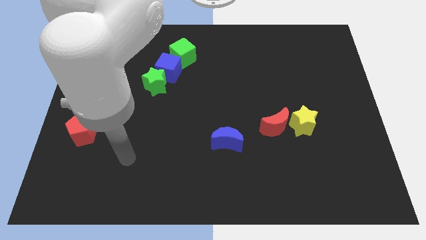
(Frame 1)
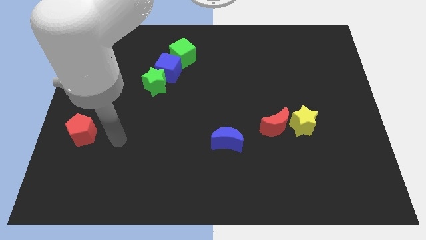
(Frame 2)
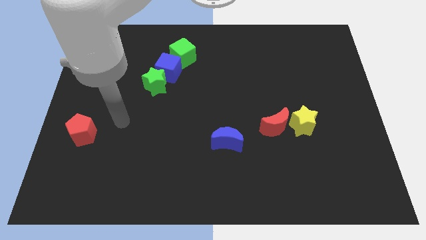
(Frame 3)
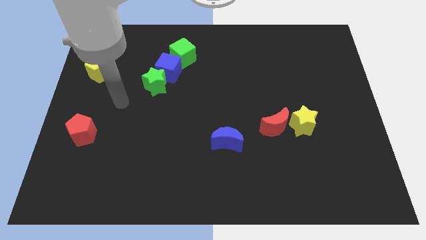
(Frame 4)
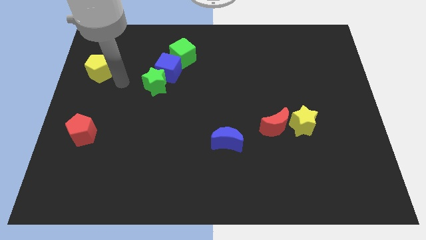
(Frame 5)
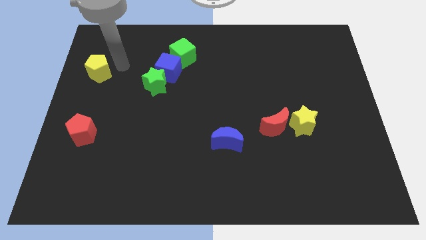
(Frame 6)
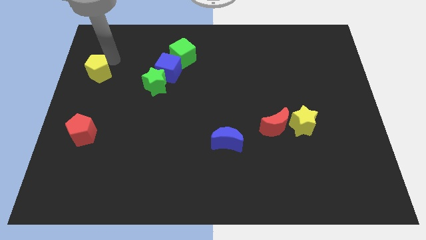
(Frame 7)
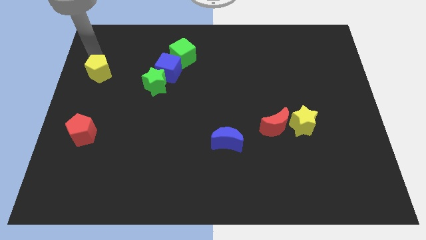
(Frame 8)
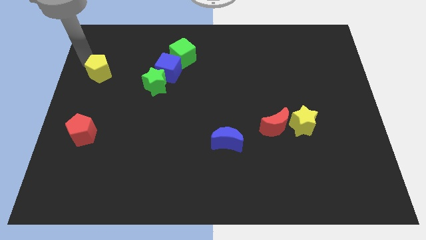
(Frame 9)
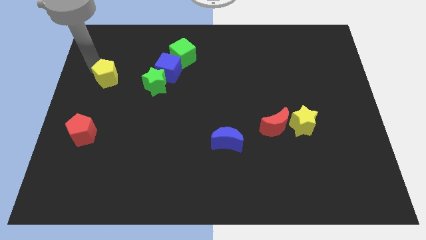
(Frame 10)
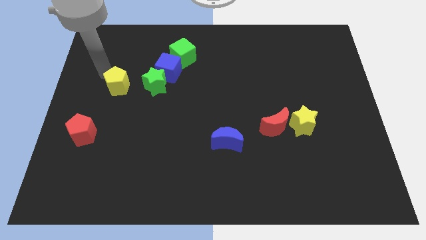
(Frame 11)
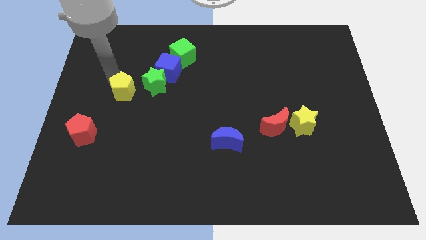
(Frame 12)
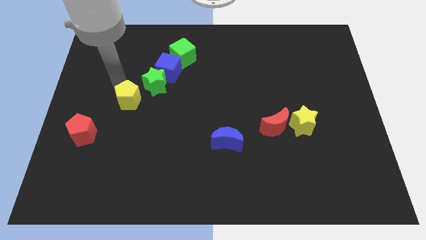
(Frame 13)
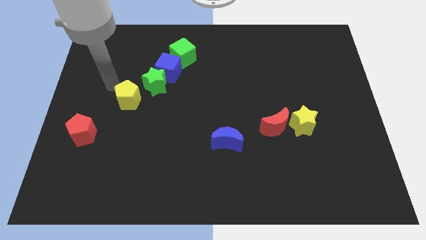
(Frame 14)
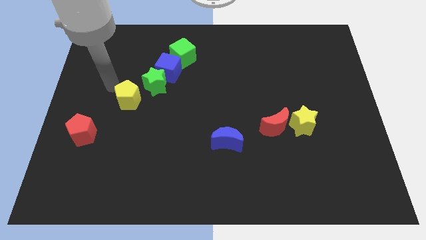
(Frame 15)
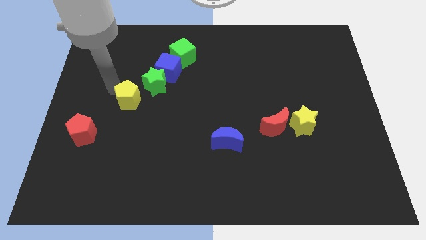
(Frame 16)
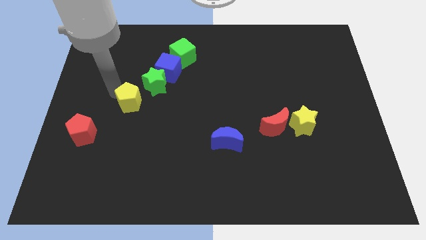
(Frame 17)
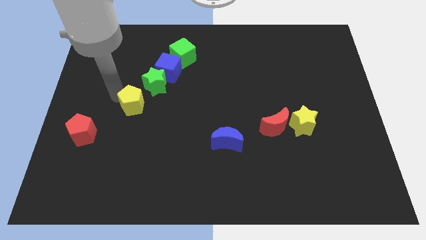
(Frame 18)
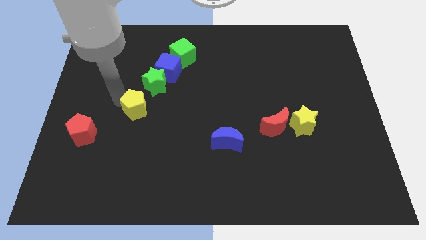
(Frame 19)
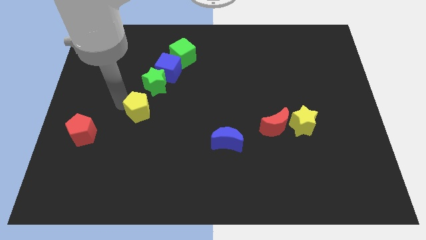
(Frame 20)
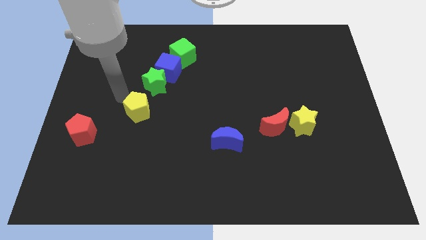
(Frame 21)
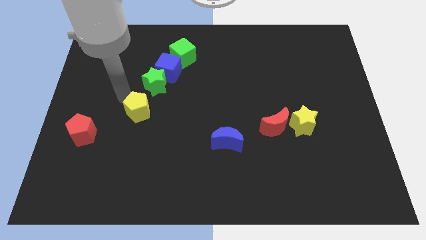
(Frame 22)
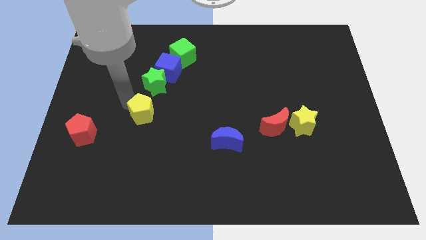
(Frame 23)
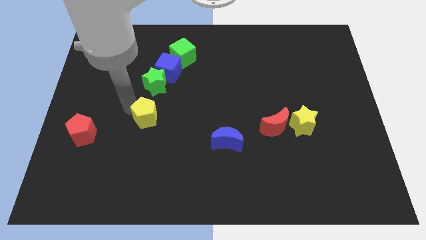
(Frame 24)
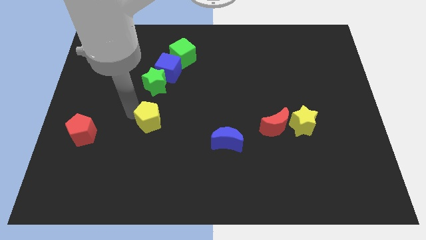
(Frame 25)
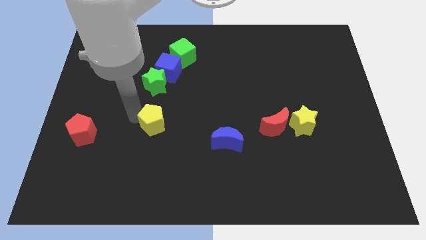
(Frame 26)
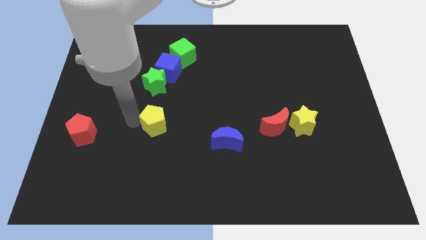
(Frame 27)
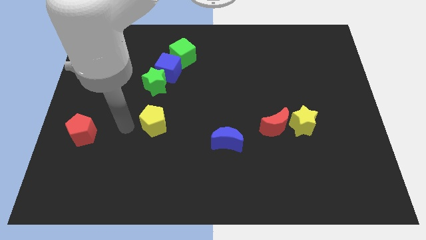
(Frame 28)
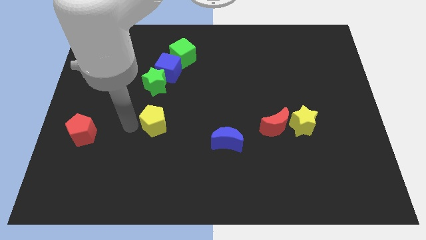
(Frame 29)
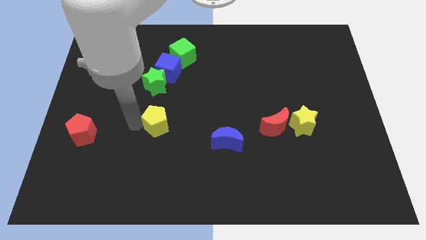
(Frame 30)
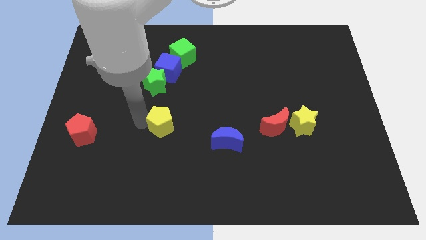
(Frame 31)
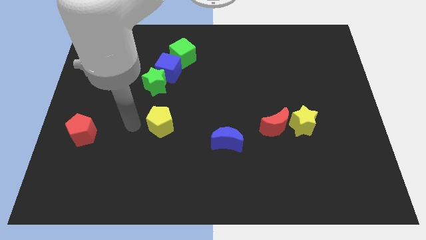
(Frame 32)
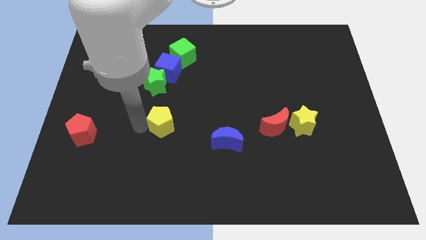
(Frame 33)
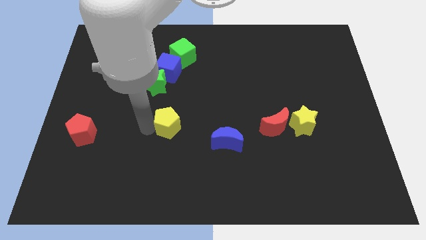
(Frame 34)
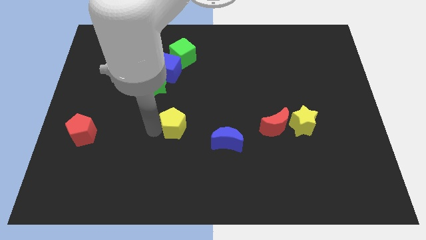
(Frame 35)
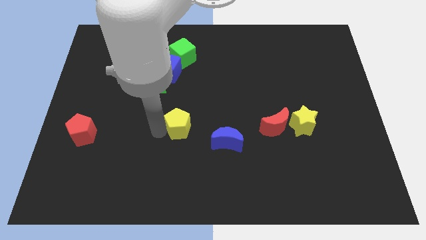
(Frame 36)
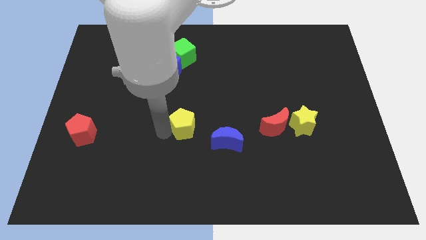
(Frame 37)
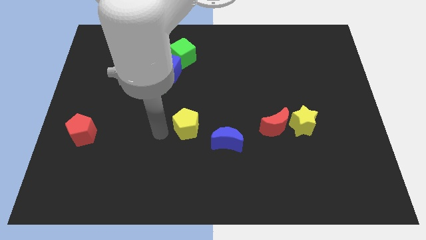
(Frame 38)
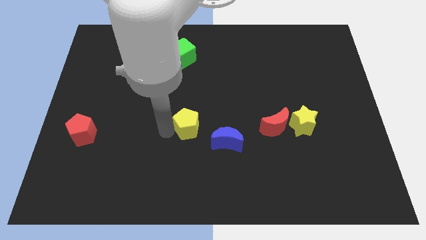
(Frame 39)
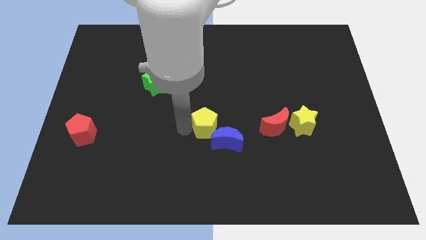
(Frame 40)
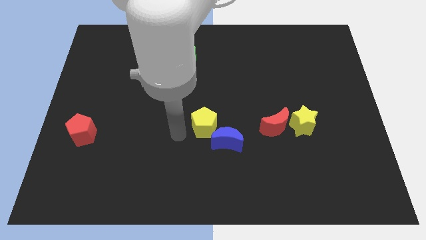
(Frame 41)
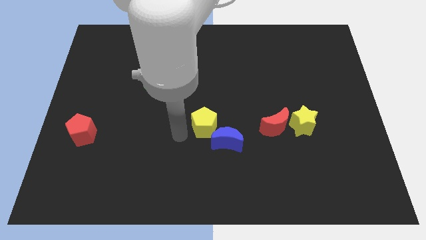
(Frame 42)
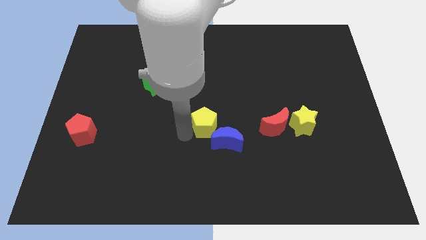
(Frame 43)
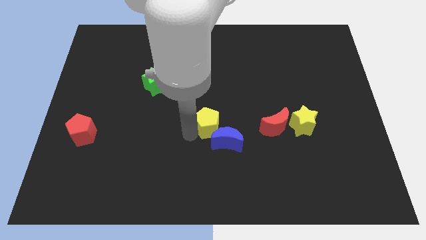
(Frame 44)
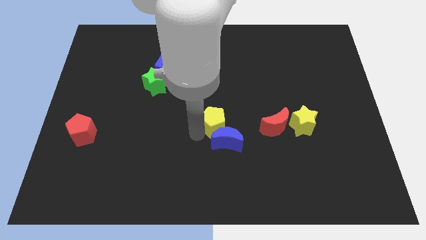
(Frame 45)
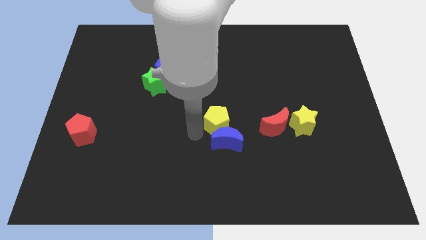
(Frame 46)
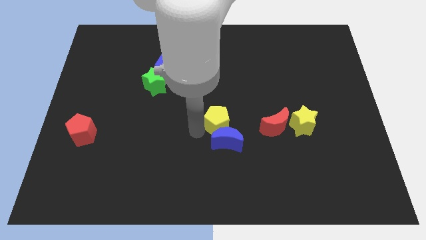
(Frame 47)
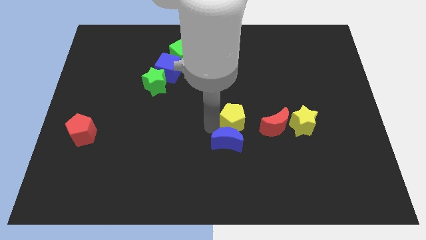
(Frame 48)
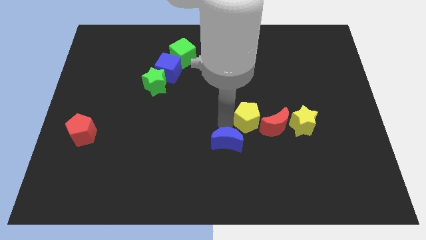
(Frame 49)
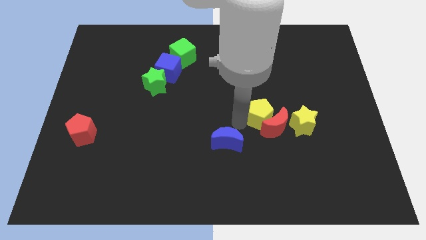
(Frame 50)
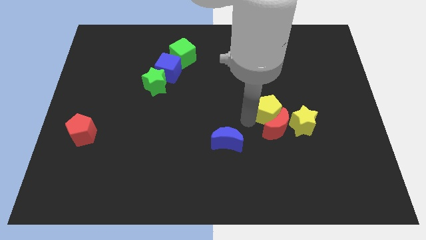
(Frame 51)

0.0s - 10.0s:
move the yellow pentagon diagonally up and to the right of the red moon

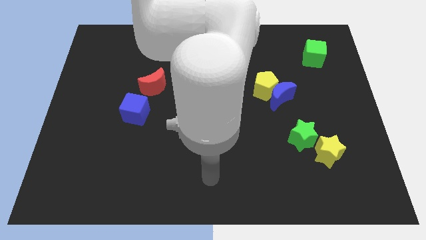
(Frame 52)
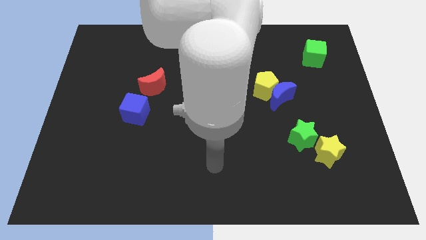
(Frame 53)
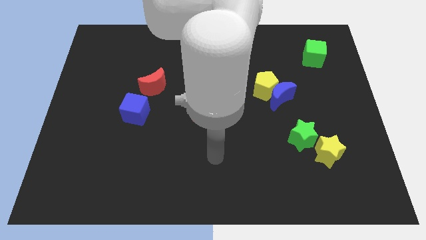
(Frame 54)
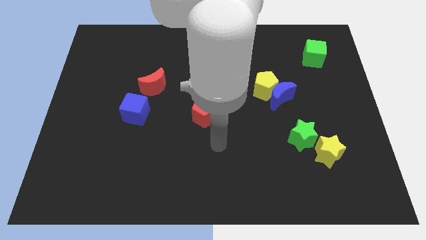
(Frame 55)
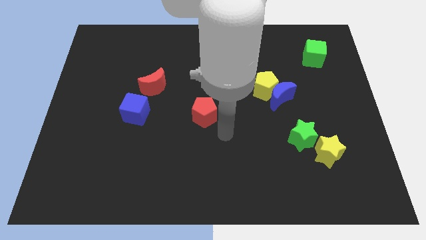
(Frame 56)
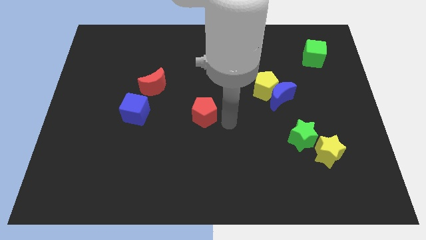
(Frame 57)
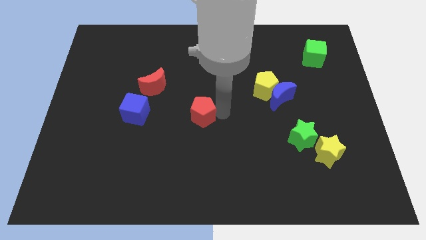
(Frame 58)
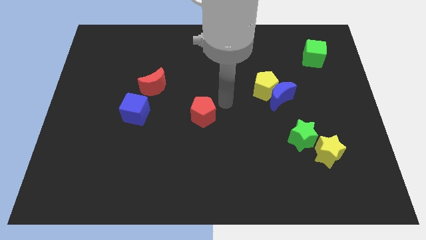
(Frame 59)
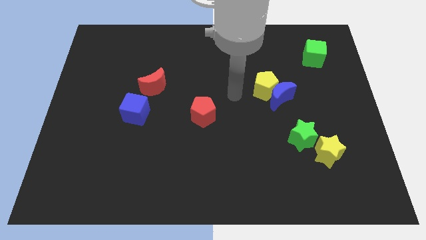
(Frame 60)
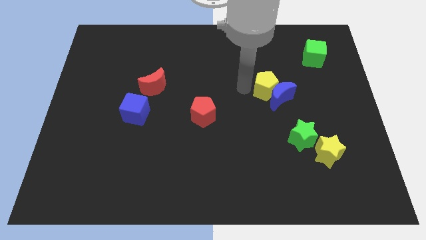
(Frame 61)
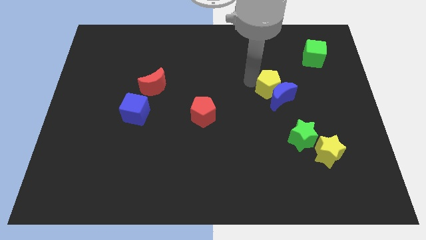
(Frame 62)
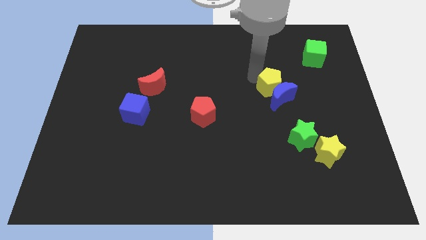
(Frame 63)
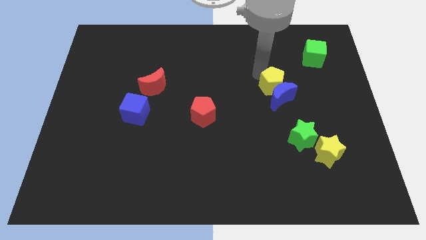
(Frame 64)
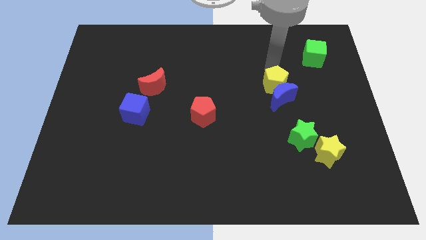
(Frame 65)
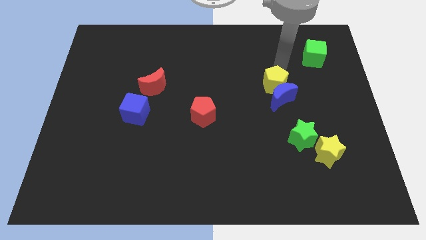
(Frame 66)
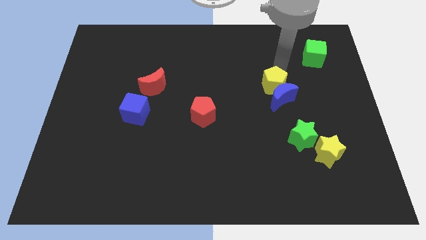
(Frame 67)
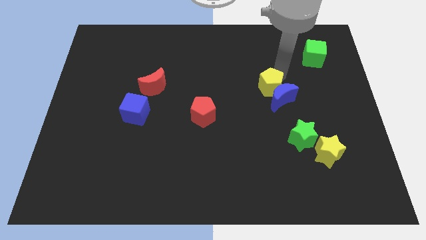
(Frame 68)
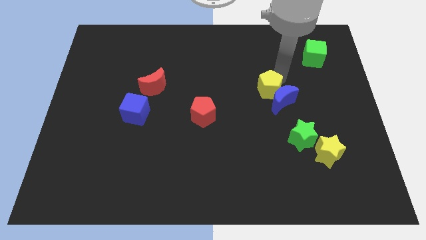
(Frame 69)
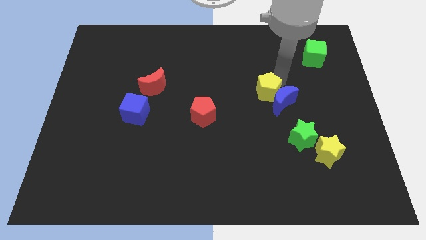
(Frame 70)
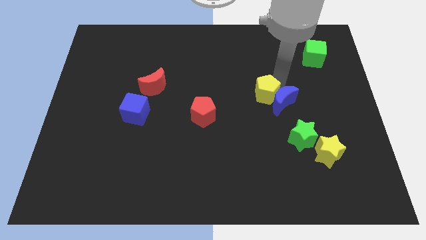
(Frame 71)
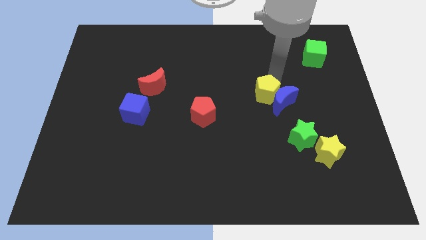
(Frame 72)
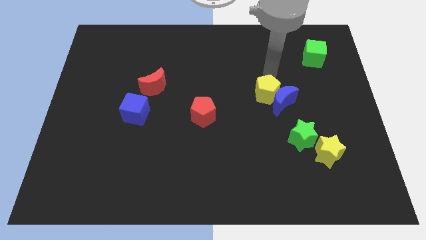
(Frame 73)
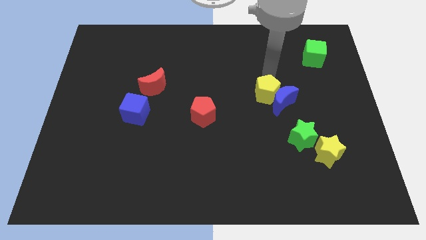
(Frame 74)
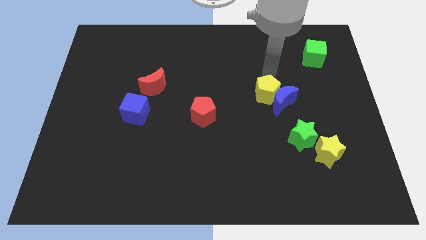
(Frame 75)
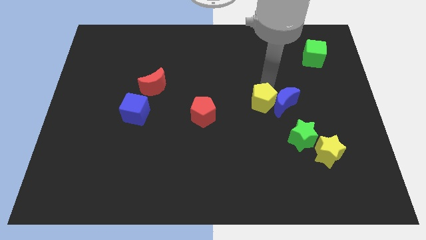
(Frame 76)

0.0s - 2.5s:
move the yellow pentagon diagonally down and to the left of the blue moon
